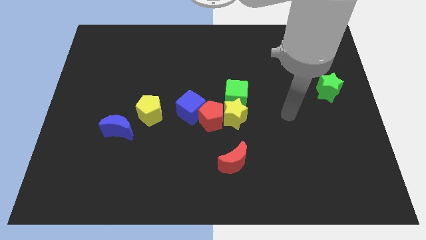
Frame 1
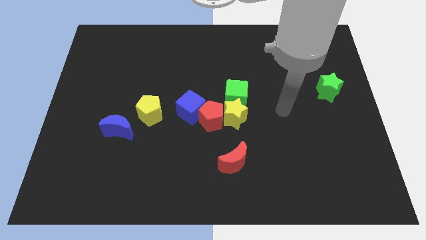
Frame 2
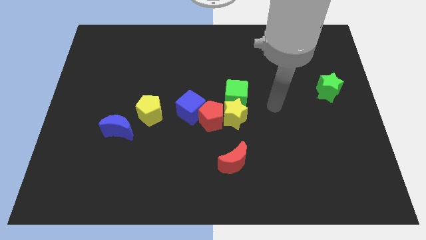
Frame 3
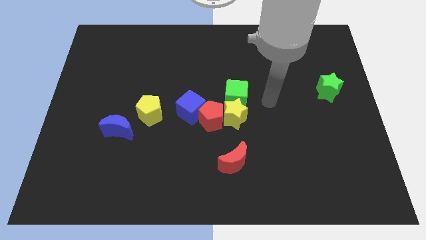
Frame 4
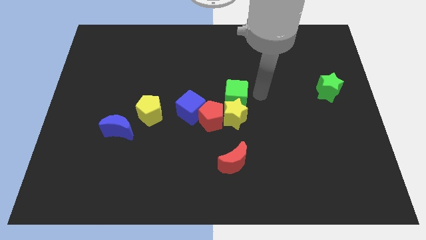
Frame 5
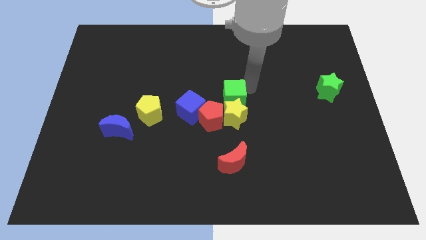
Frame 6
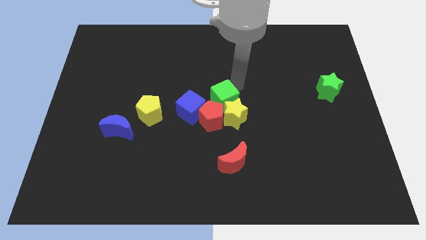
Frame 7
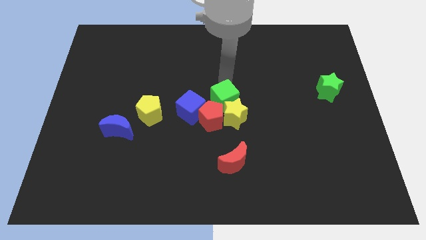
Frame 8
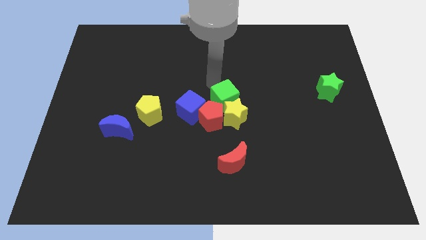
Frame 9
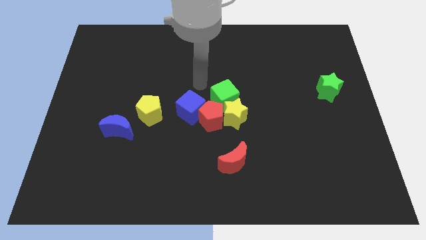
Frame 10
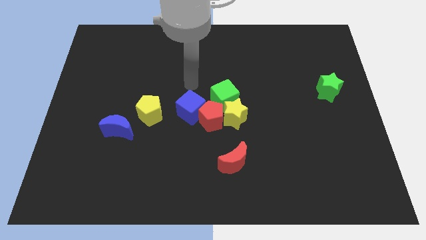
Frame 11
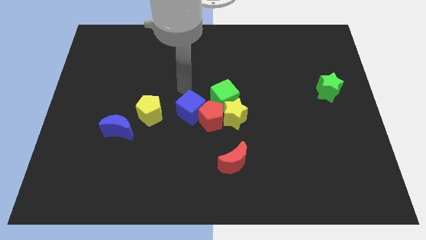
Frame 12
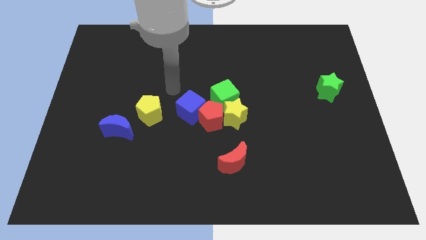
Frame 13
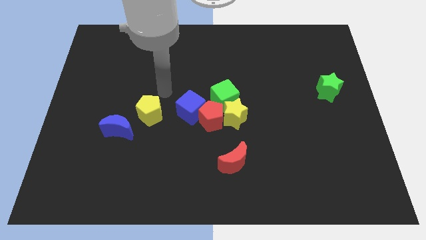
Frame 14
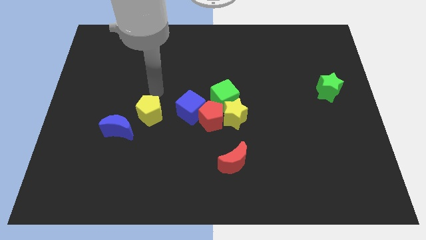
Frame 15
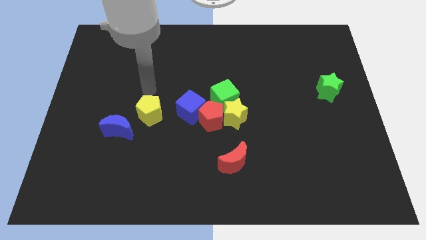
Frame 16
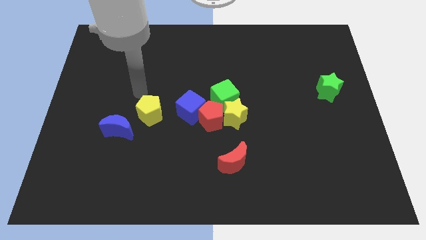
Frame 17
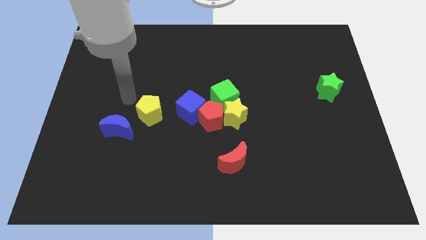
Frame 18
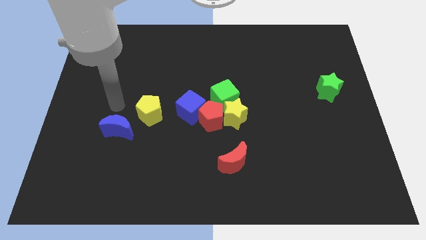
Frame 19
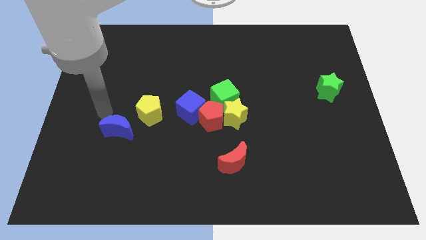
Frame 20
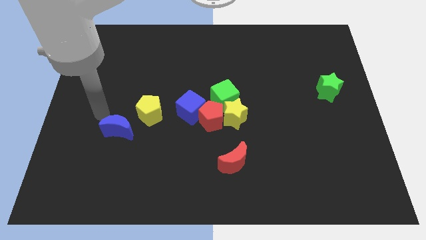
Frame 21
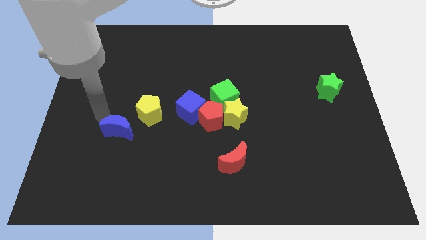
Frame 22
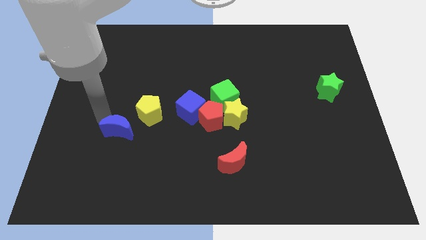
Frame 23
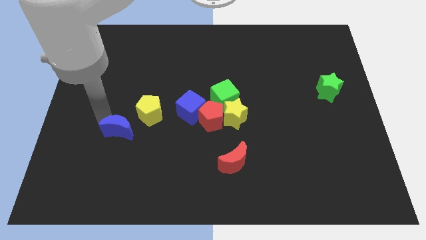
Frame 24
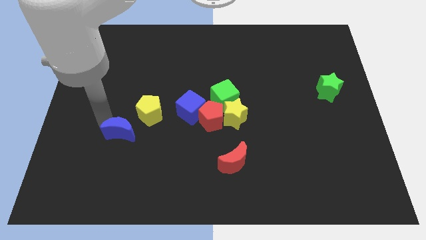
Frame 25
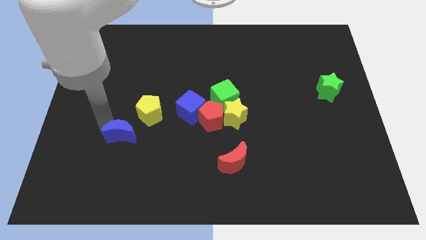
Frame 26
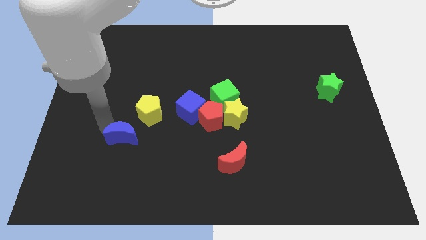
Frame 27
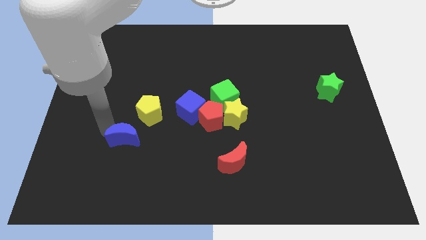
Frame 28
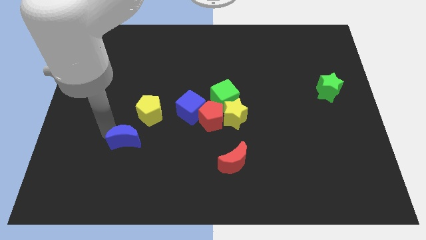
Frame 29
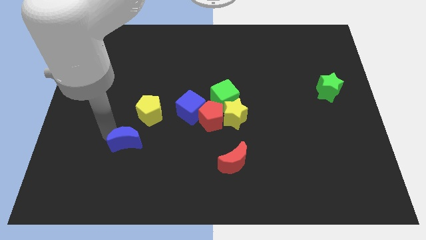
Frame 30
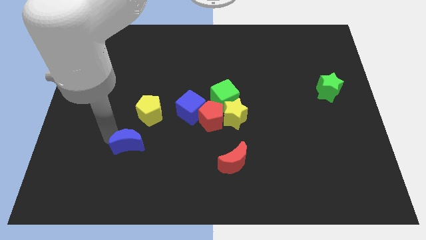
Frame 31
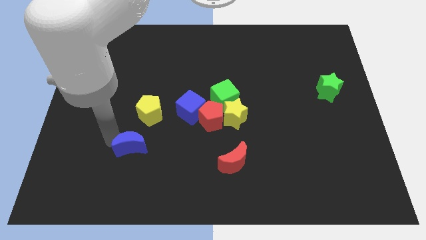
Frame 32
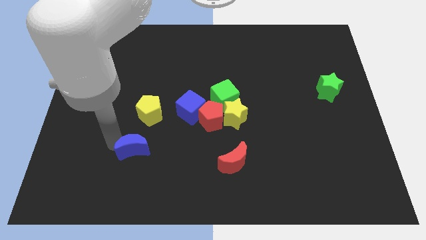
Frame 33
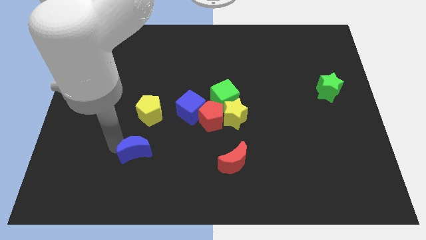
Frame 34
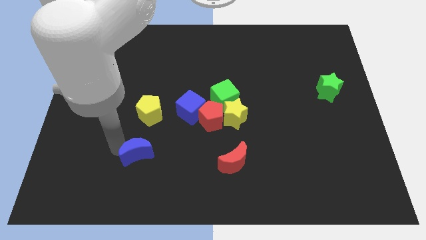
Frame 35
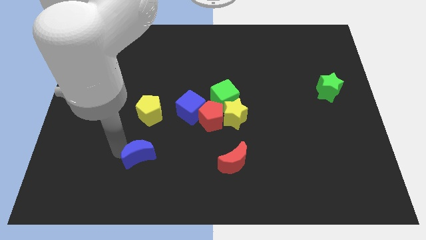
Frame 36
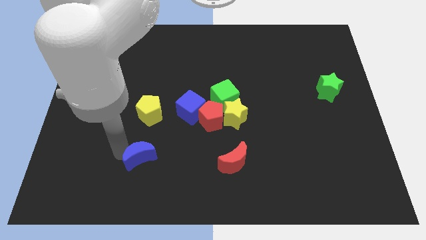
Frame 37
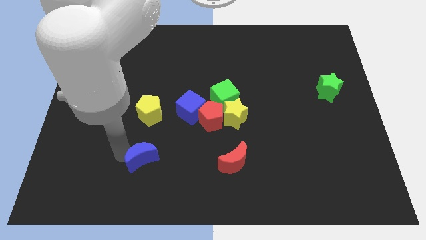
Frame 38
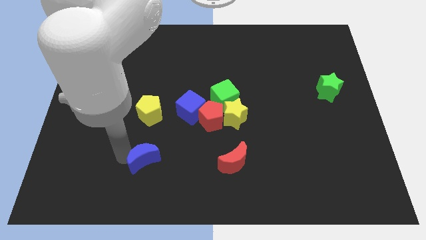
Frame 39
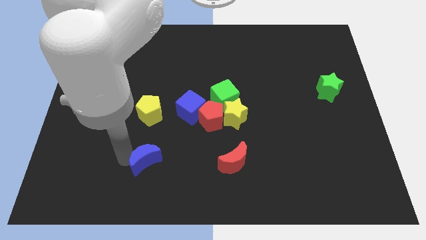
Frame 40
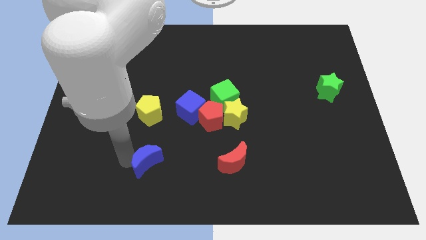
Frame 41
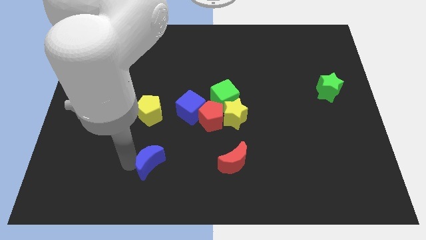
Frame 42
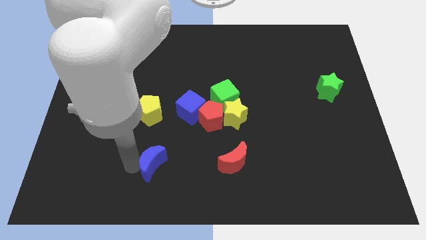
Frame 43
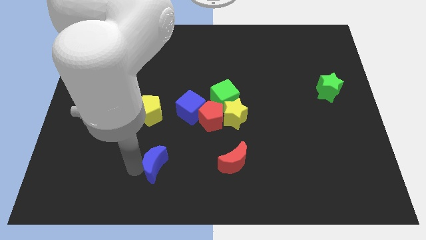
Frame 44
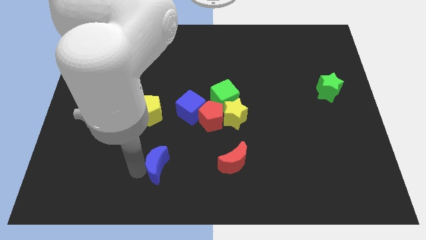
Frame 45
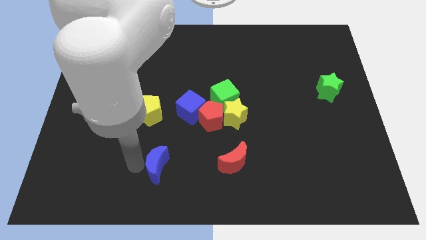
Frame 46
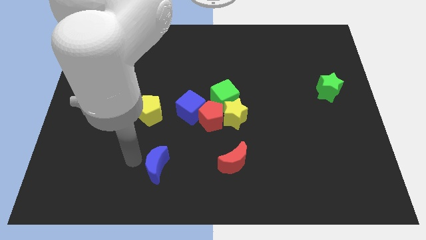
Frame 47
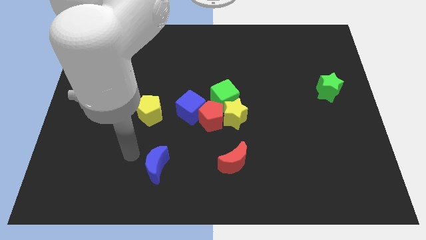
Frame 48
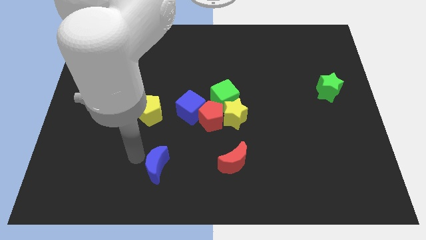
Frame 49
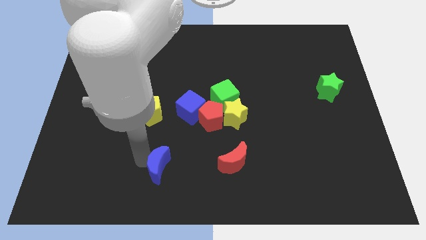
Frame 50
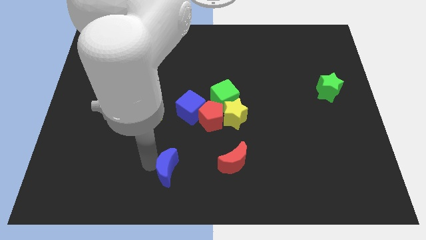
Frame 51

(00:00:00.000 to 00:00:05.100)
move the blue moon to the bottom side

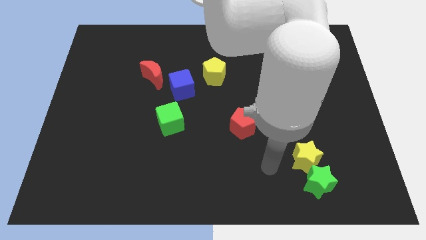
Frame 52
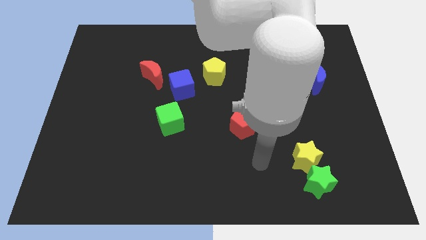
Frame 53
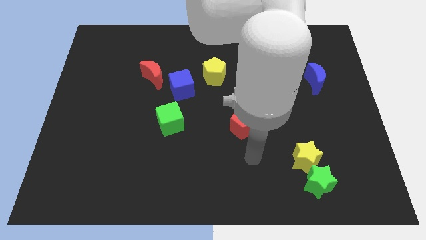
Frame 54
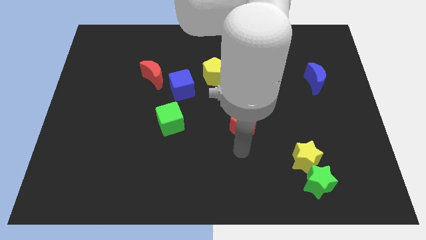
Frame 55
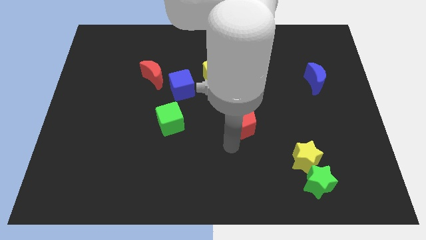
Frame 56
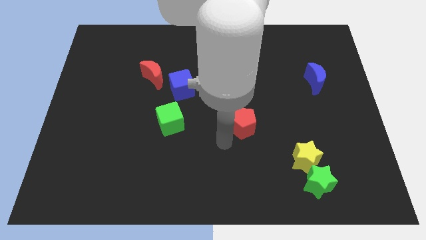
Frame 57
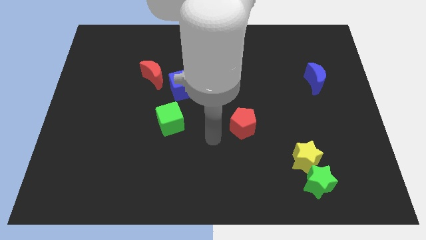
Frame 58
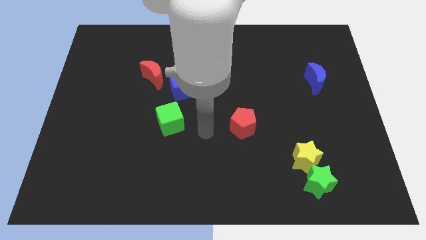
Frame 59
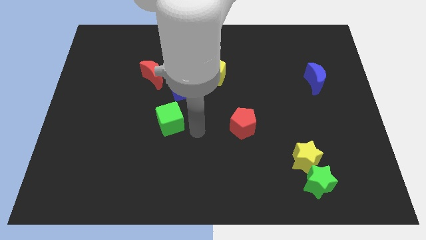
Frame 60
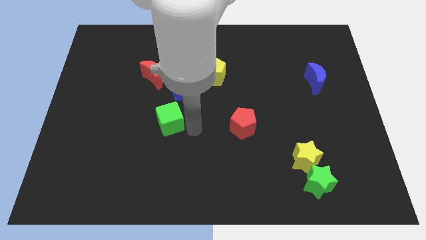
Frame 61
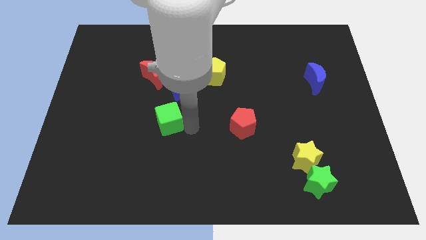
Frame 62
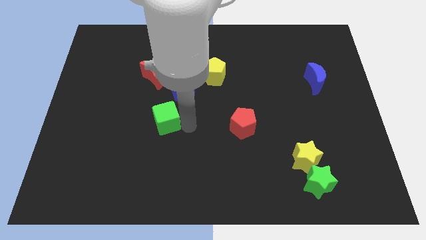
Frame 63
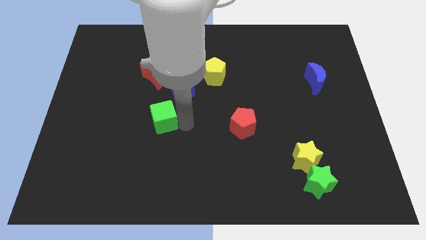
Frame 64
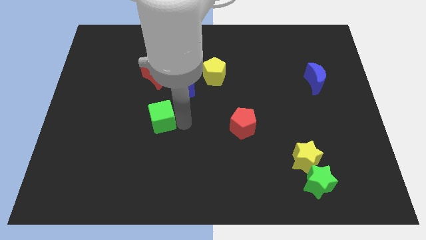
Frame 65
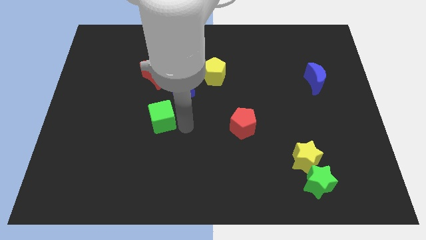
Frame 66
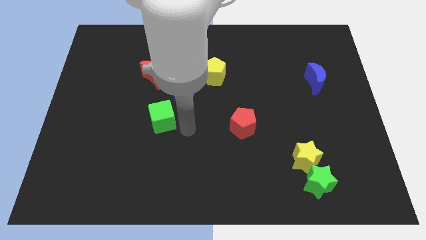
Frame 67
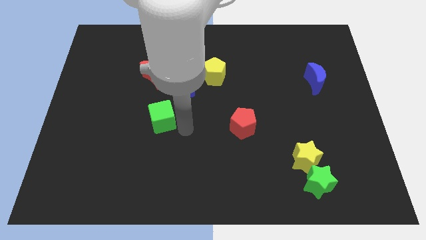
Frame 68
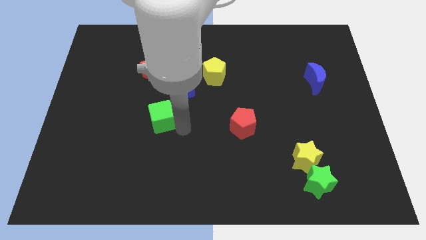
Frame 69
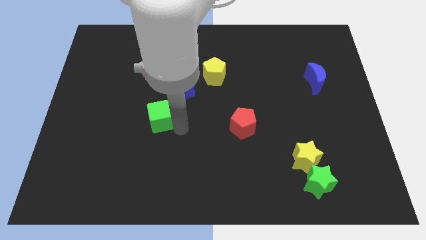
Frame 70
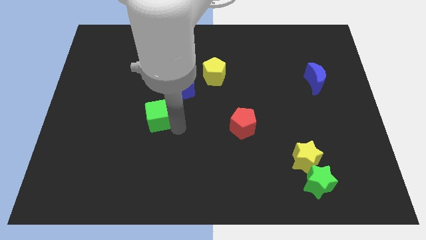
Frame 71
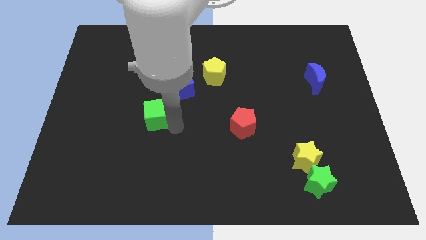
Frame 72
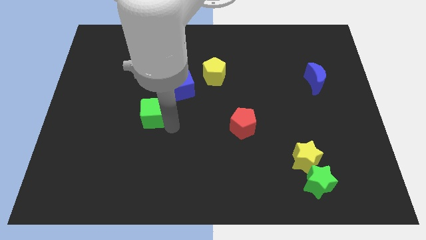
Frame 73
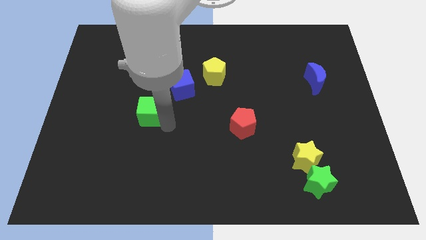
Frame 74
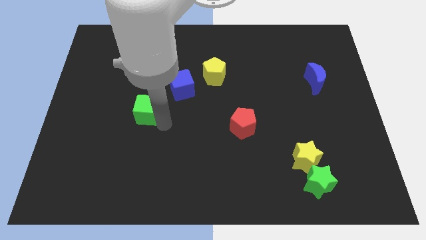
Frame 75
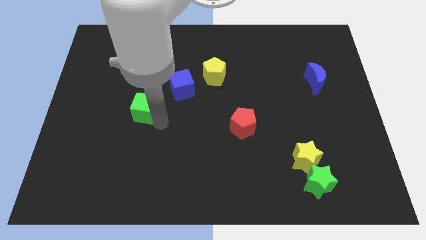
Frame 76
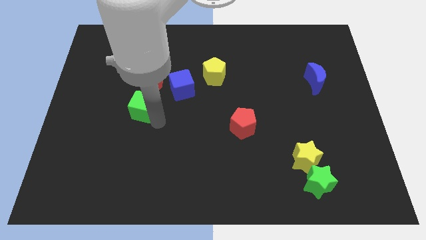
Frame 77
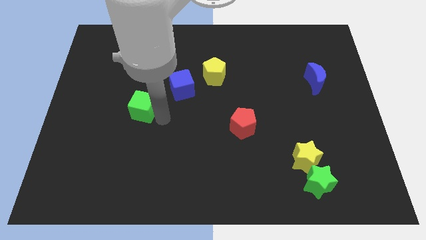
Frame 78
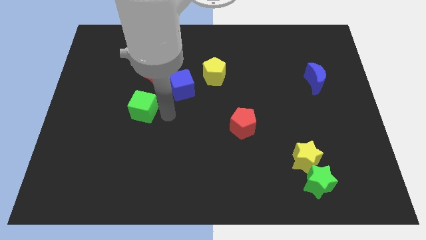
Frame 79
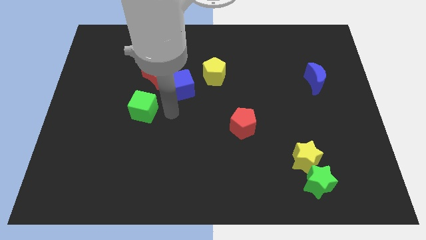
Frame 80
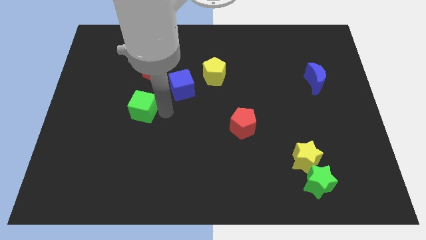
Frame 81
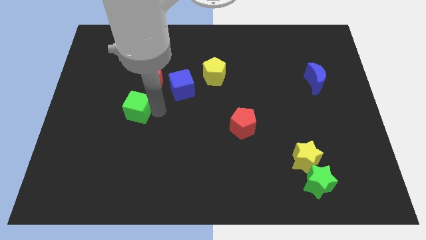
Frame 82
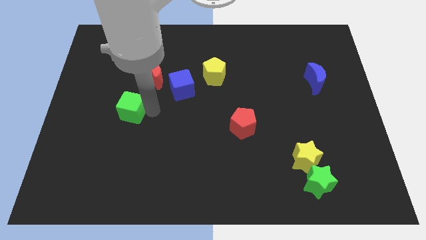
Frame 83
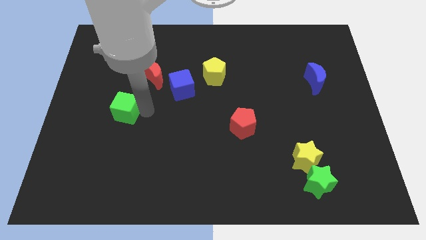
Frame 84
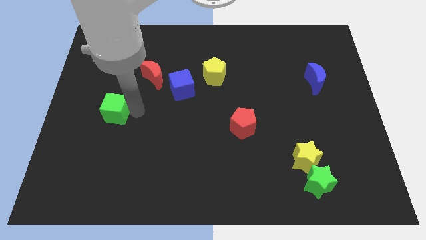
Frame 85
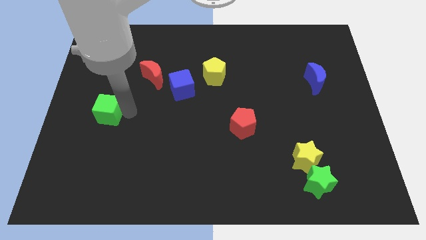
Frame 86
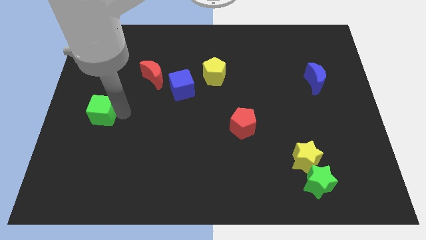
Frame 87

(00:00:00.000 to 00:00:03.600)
push the green cube to the left side of the board
